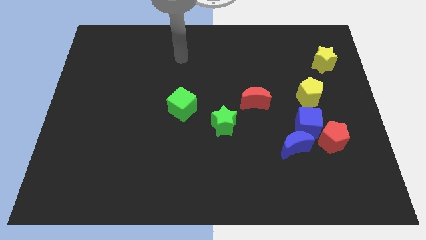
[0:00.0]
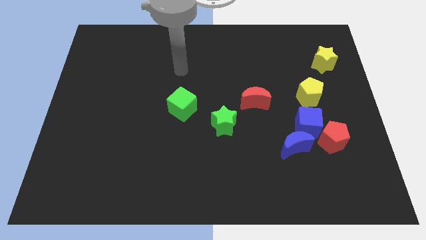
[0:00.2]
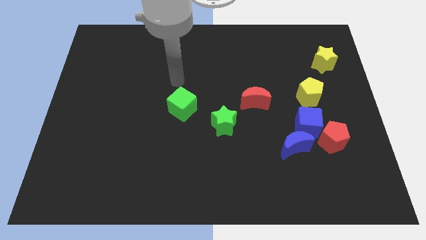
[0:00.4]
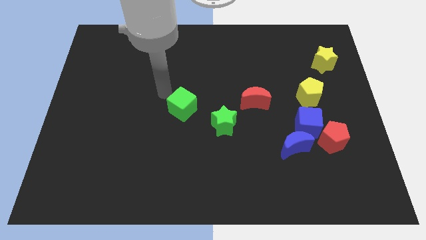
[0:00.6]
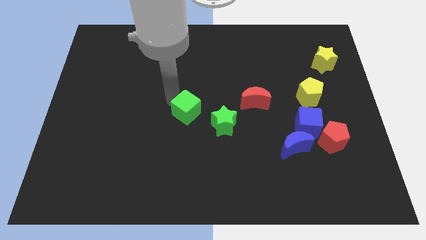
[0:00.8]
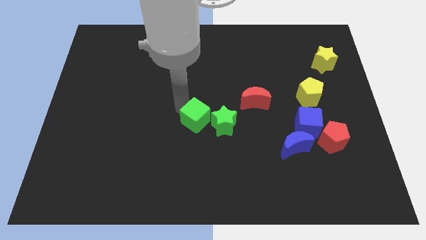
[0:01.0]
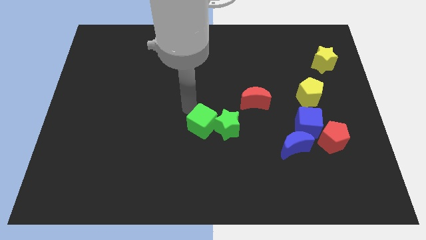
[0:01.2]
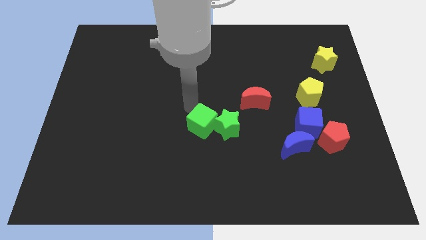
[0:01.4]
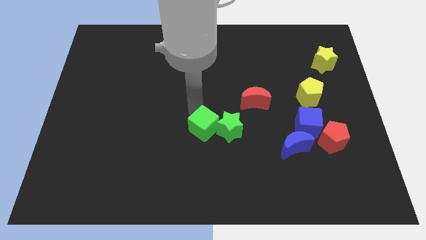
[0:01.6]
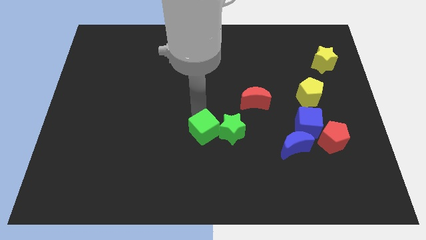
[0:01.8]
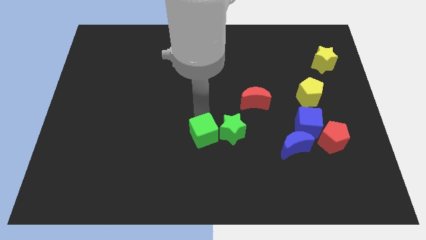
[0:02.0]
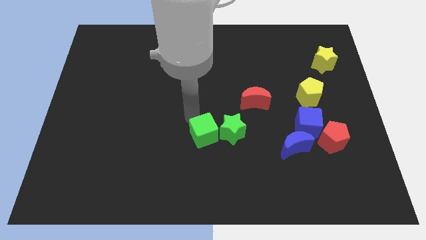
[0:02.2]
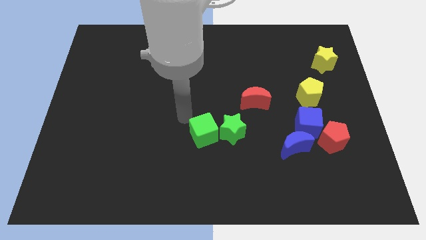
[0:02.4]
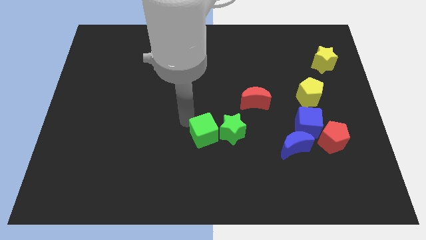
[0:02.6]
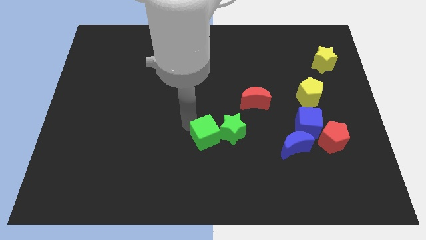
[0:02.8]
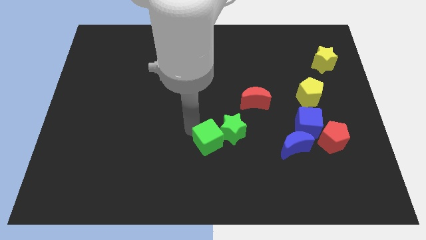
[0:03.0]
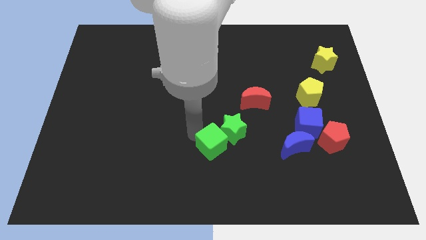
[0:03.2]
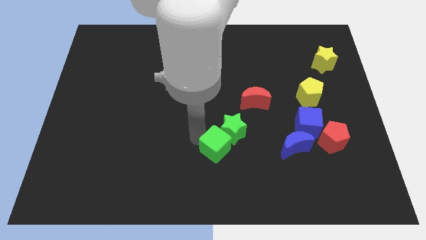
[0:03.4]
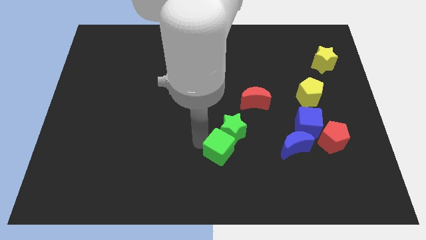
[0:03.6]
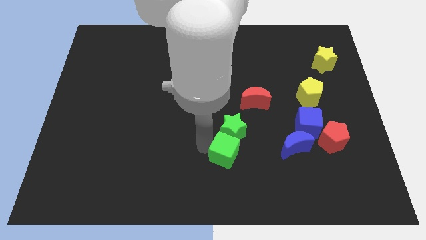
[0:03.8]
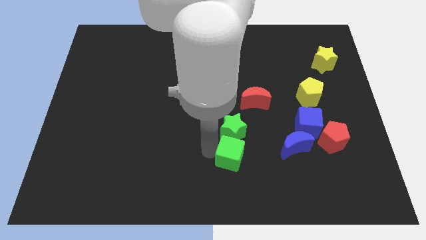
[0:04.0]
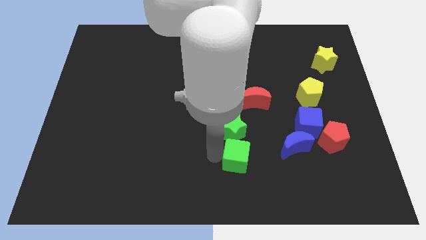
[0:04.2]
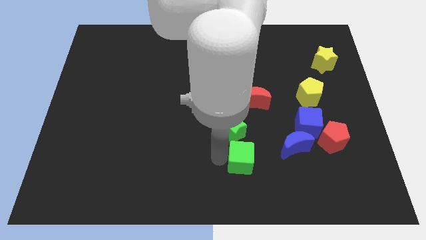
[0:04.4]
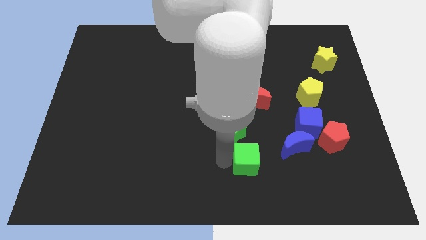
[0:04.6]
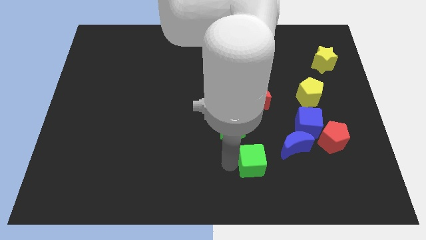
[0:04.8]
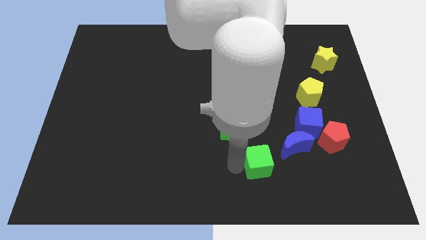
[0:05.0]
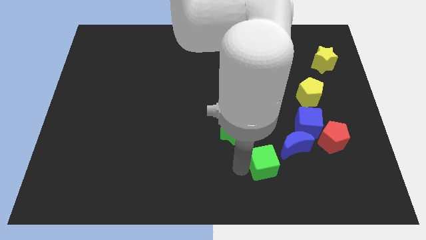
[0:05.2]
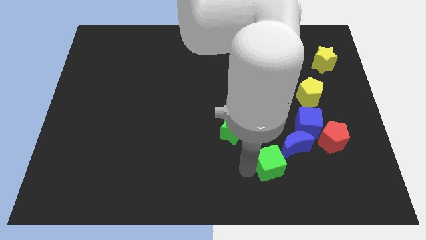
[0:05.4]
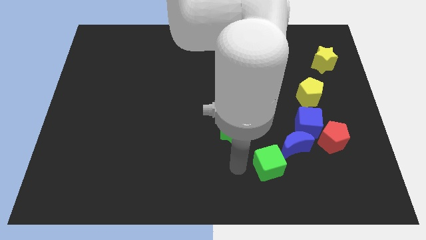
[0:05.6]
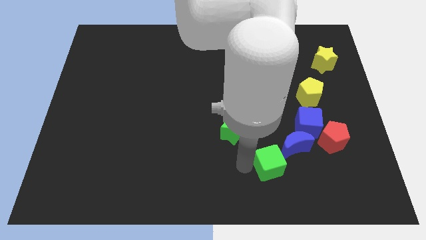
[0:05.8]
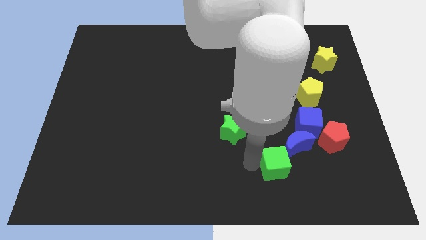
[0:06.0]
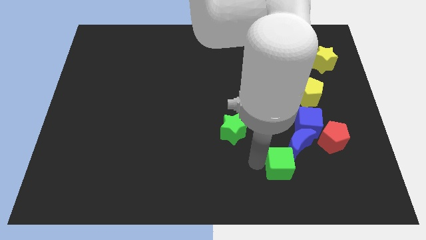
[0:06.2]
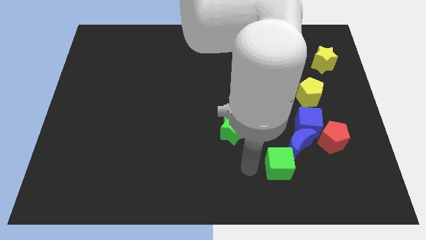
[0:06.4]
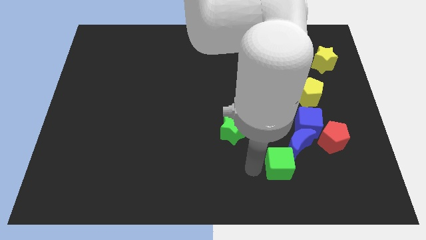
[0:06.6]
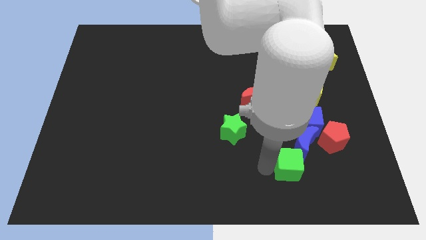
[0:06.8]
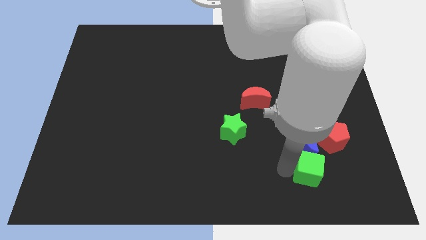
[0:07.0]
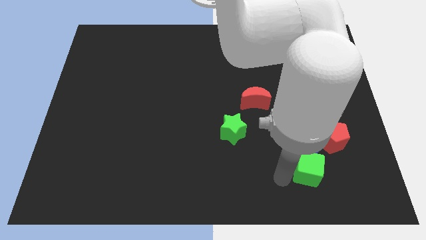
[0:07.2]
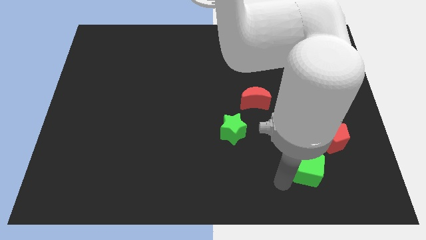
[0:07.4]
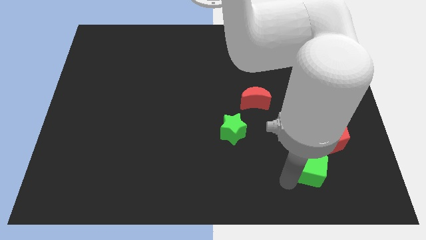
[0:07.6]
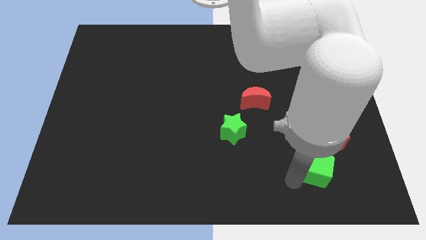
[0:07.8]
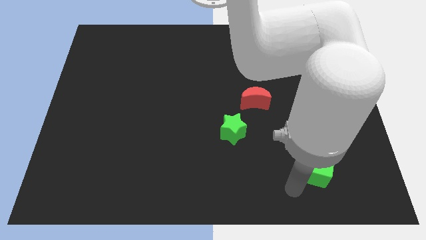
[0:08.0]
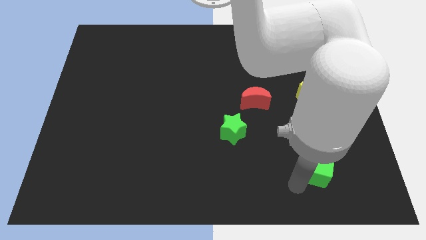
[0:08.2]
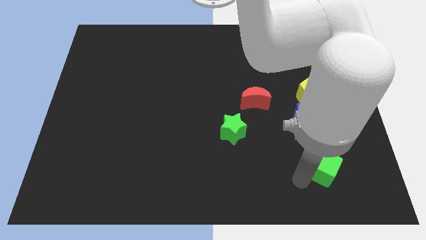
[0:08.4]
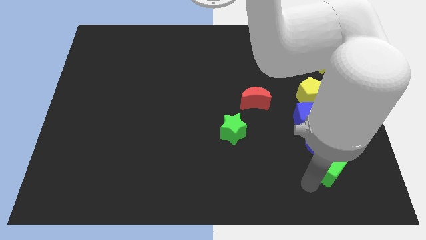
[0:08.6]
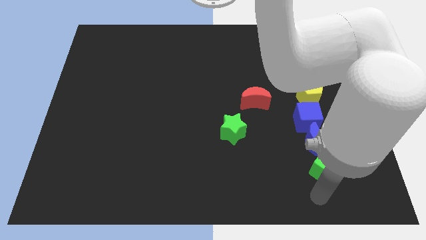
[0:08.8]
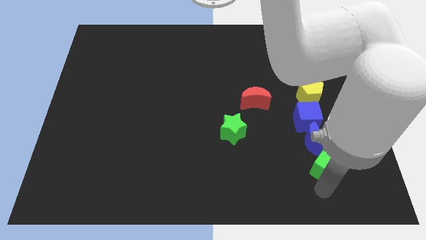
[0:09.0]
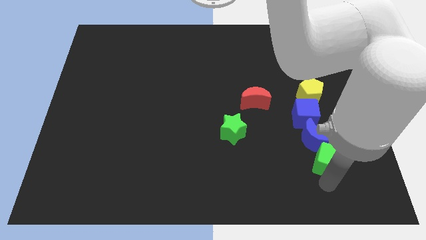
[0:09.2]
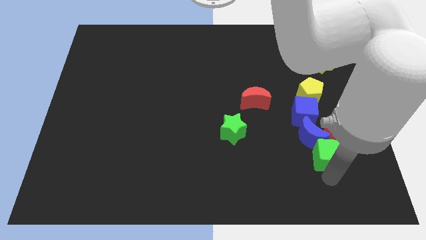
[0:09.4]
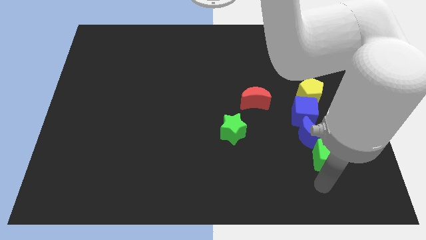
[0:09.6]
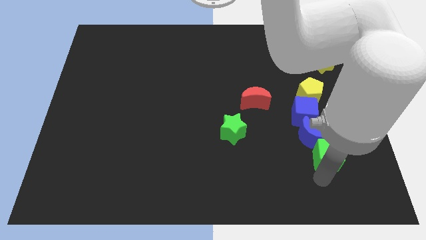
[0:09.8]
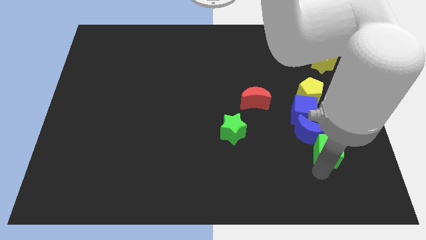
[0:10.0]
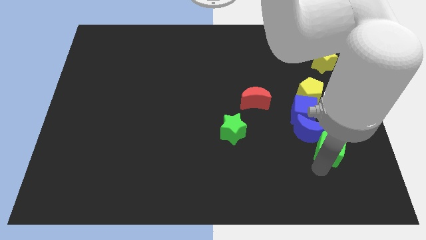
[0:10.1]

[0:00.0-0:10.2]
move the green cube to the bottom right side of the blue cube

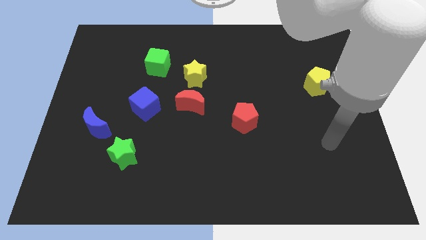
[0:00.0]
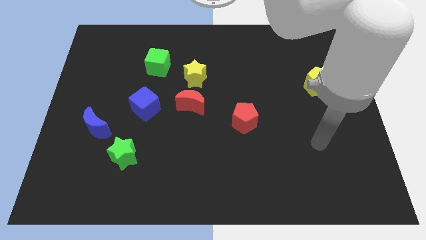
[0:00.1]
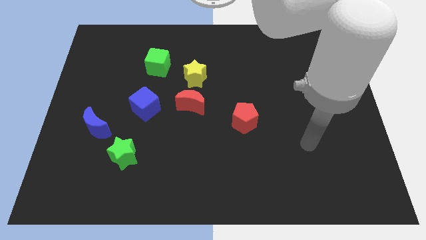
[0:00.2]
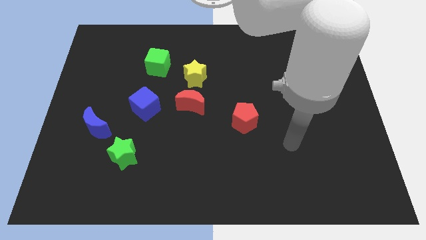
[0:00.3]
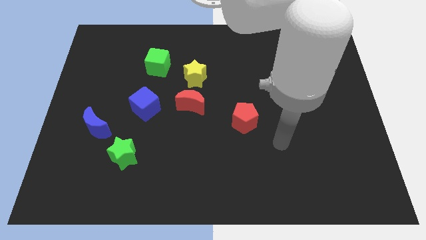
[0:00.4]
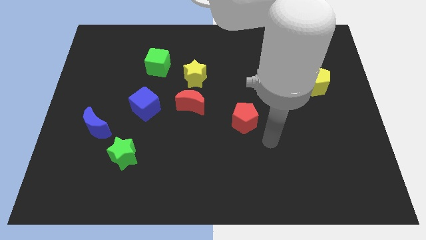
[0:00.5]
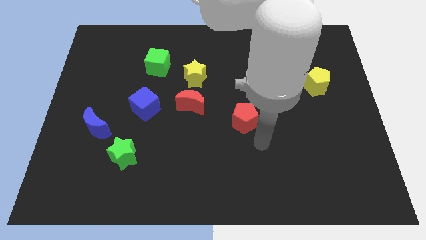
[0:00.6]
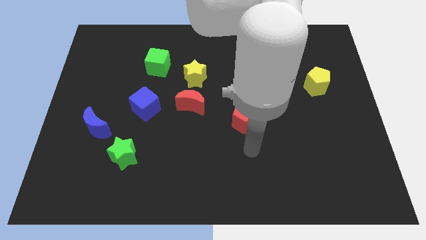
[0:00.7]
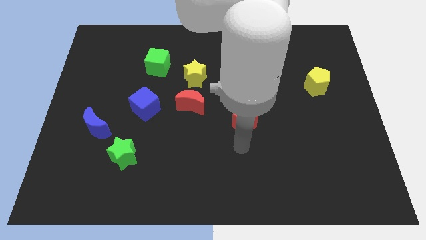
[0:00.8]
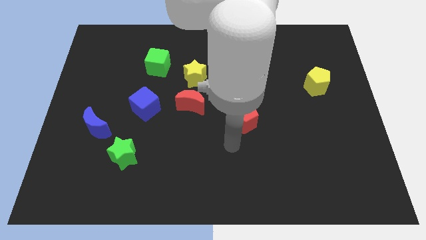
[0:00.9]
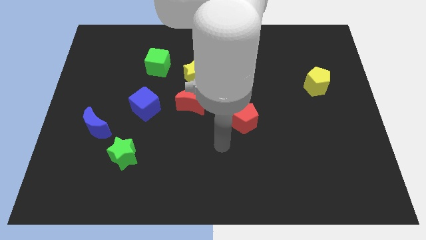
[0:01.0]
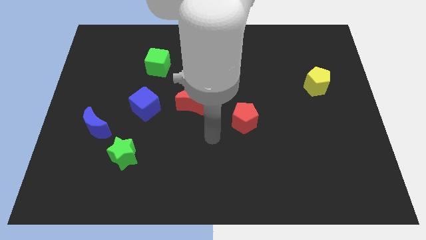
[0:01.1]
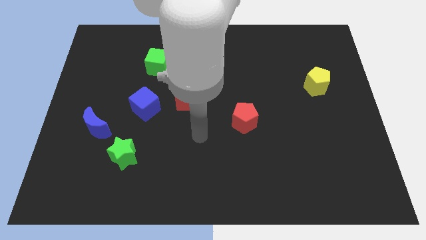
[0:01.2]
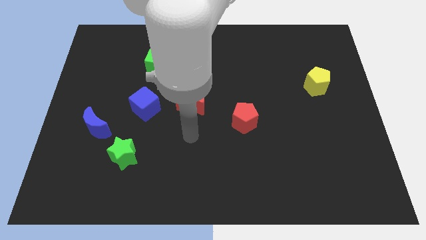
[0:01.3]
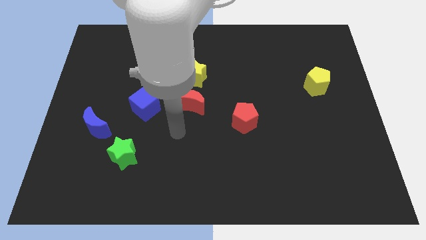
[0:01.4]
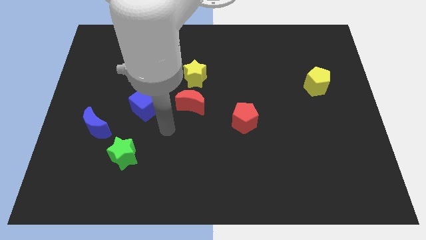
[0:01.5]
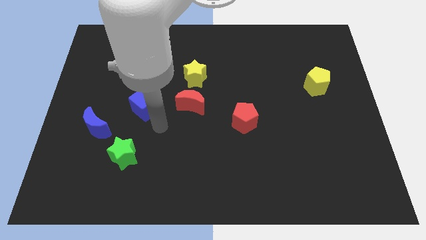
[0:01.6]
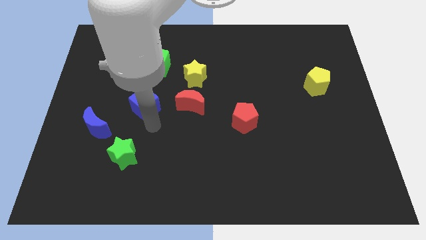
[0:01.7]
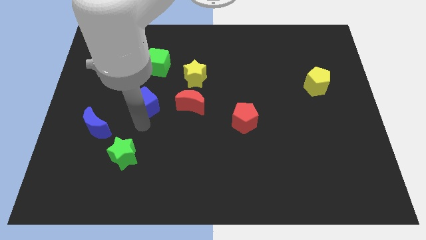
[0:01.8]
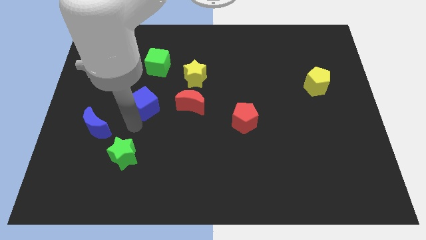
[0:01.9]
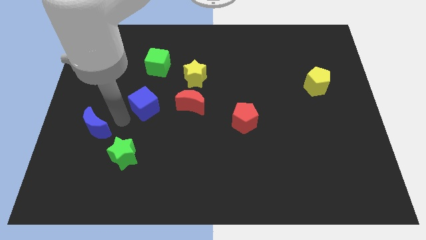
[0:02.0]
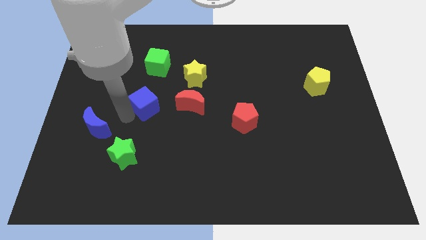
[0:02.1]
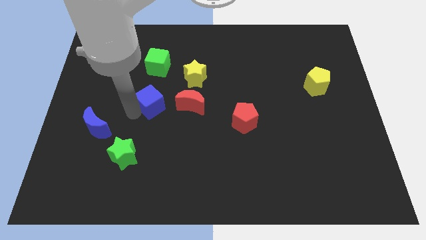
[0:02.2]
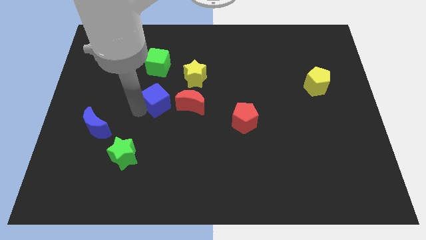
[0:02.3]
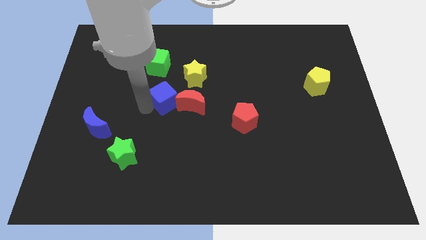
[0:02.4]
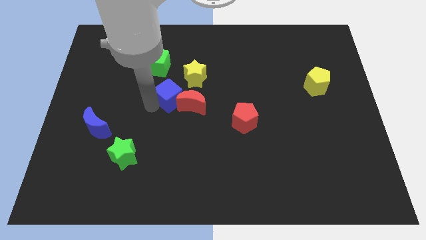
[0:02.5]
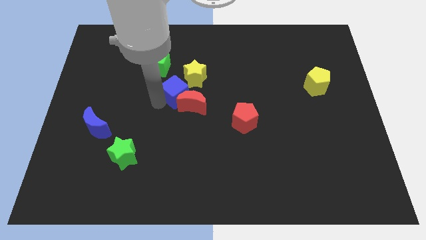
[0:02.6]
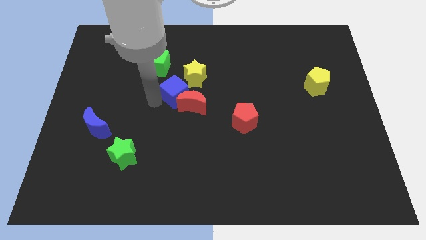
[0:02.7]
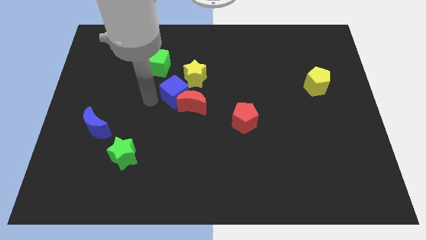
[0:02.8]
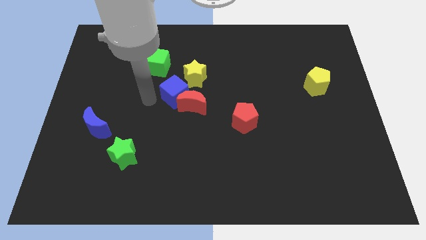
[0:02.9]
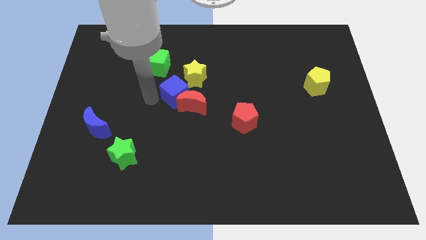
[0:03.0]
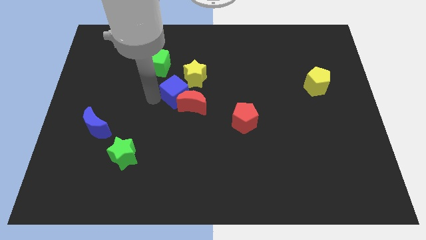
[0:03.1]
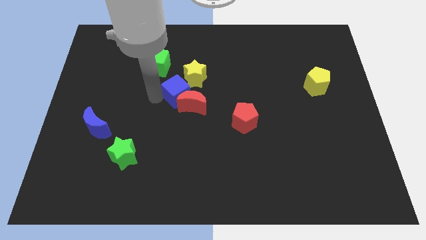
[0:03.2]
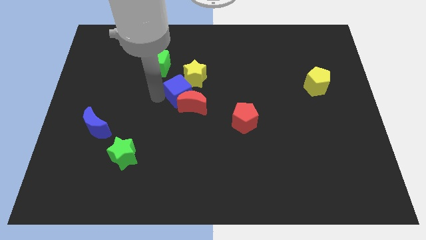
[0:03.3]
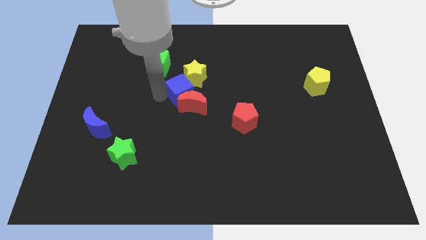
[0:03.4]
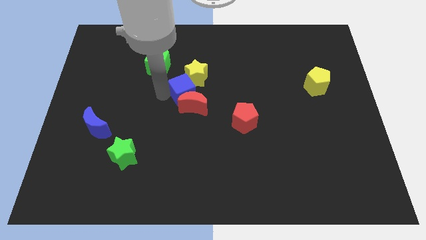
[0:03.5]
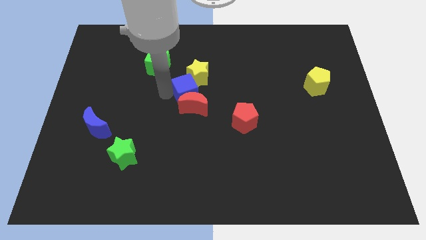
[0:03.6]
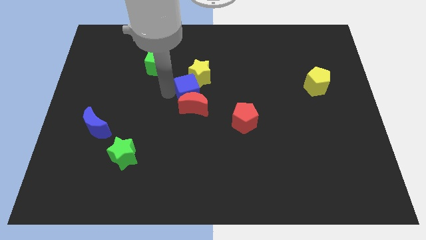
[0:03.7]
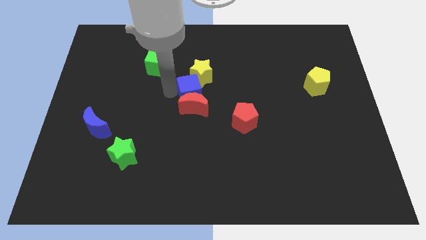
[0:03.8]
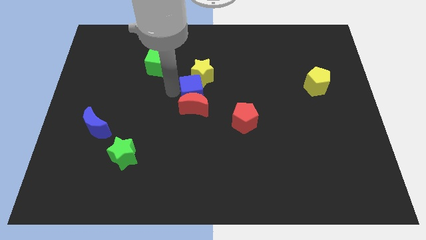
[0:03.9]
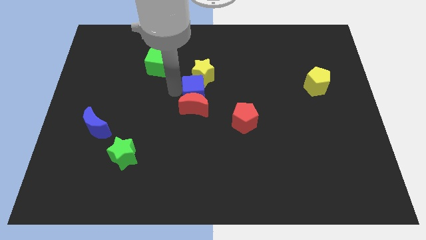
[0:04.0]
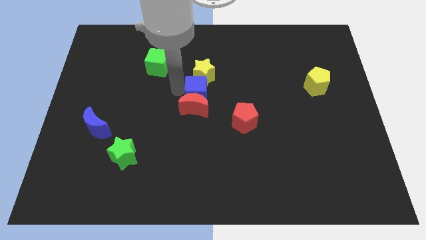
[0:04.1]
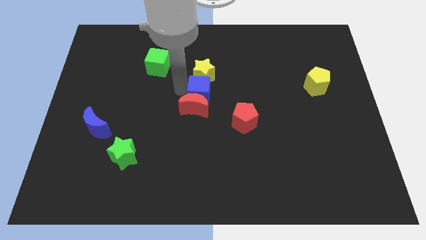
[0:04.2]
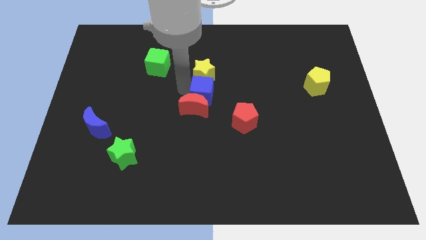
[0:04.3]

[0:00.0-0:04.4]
put the blue cube to the top left of the red pentagon
